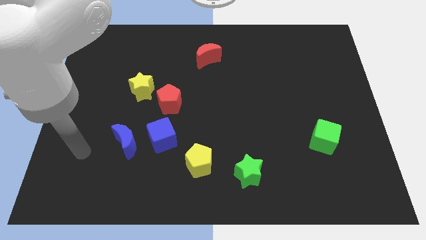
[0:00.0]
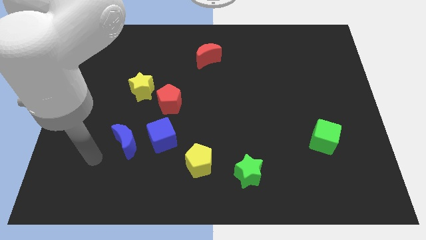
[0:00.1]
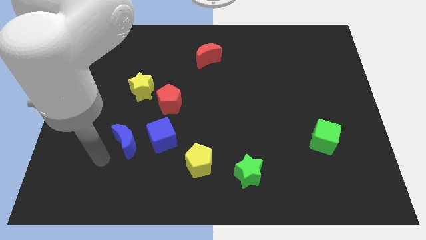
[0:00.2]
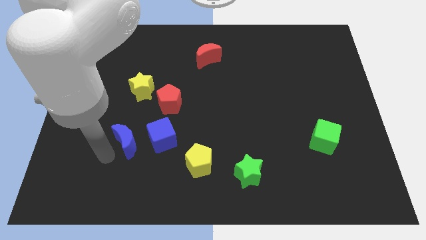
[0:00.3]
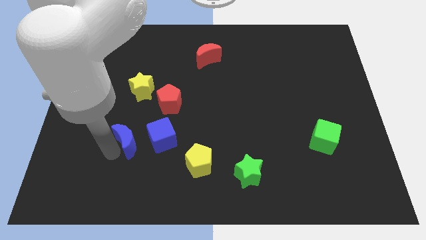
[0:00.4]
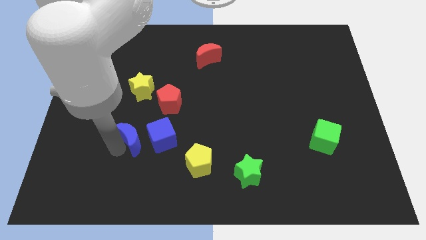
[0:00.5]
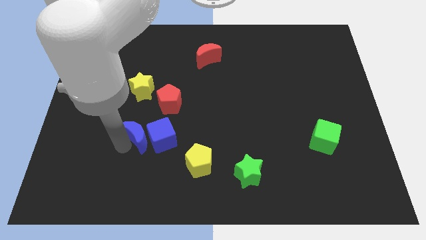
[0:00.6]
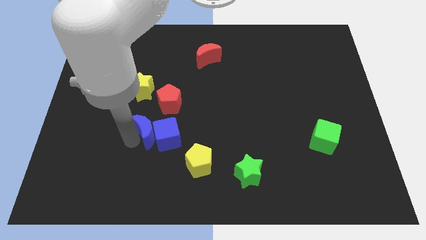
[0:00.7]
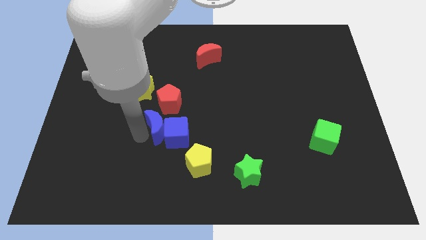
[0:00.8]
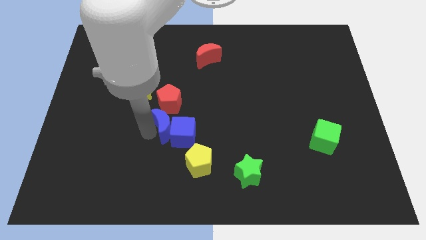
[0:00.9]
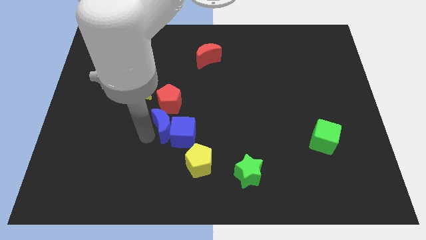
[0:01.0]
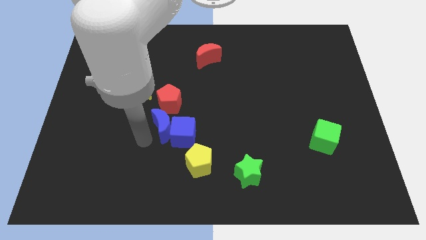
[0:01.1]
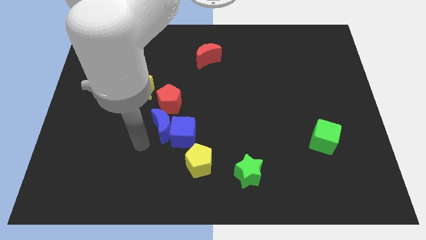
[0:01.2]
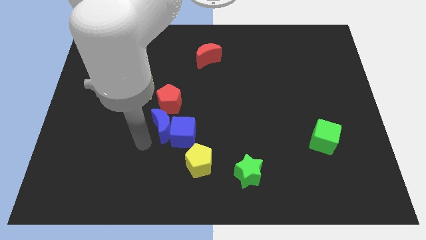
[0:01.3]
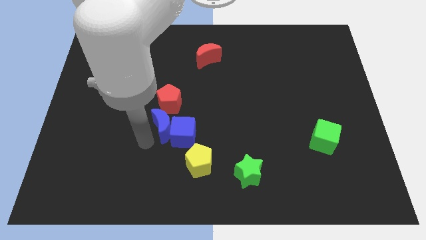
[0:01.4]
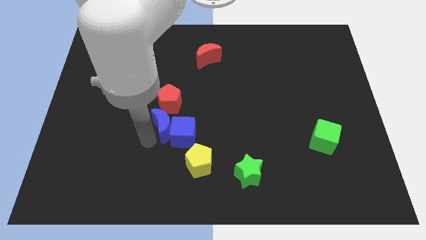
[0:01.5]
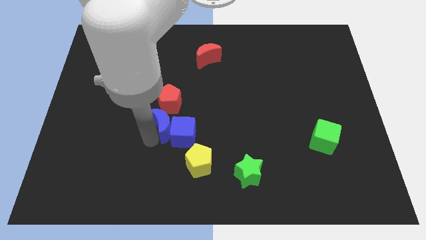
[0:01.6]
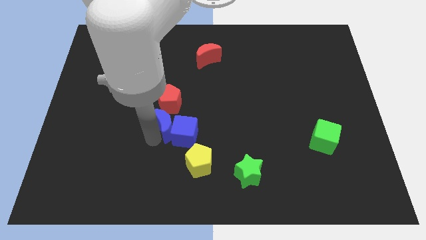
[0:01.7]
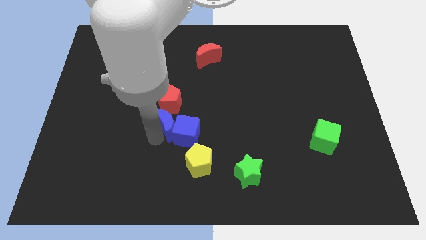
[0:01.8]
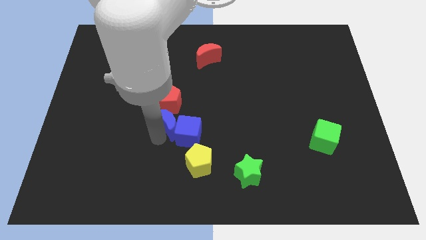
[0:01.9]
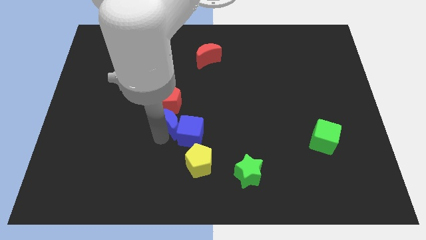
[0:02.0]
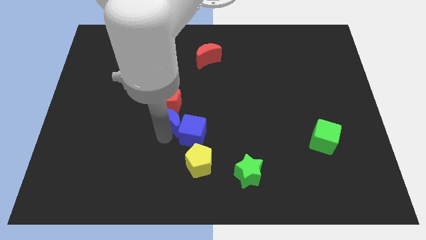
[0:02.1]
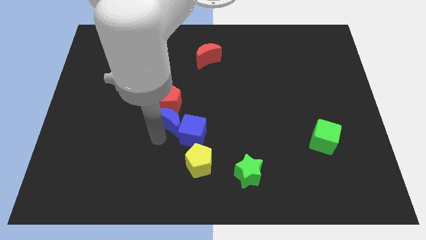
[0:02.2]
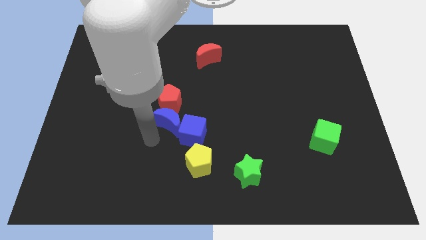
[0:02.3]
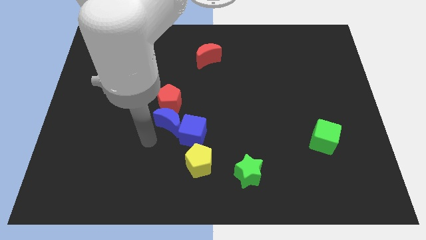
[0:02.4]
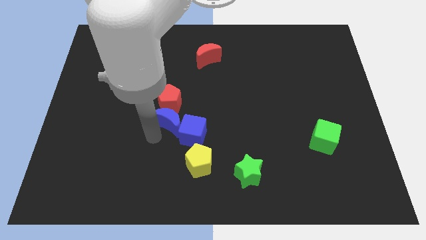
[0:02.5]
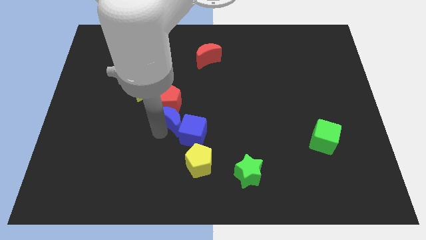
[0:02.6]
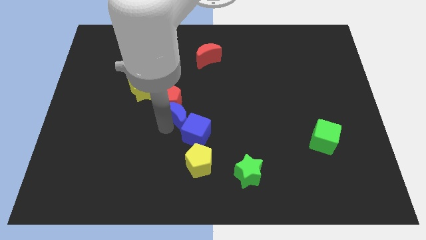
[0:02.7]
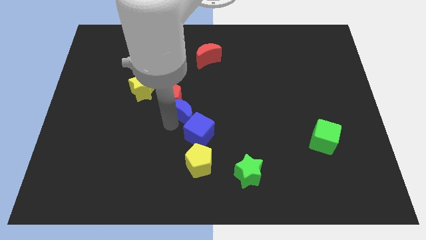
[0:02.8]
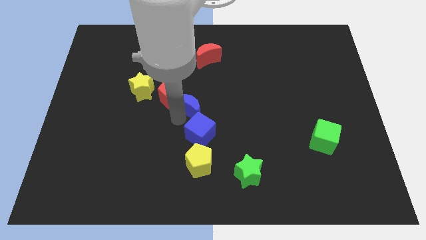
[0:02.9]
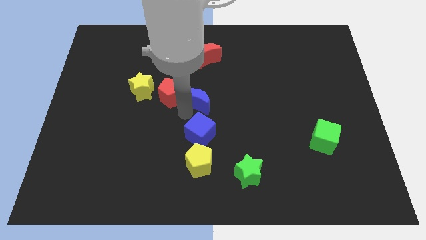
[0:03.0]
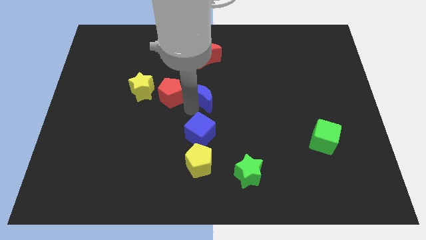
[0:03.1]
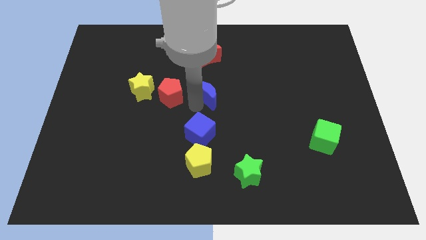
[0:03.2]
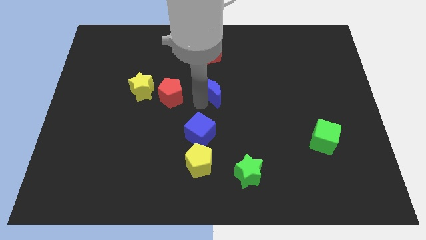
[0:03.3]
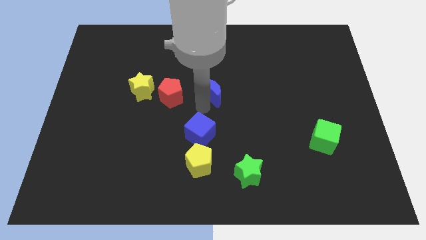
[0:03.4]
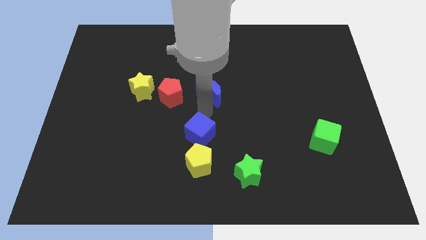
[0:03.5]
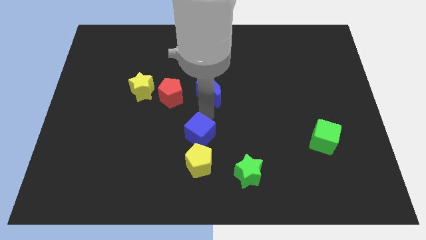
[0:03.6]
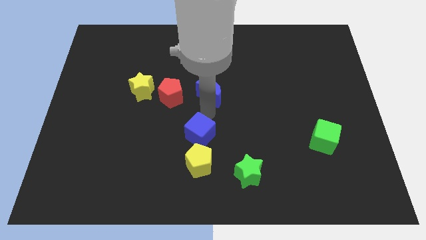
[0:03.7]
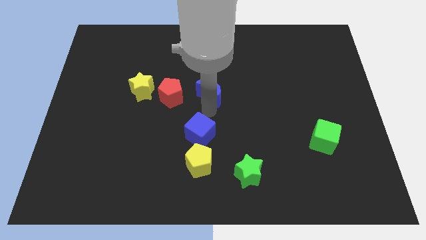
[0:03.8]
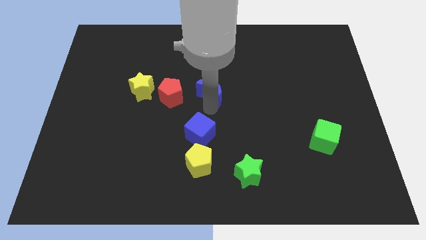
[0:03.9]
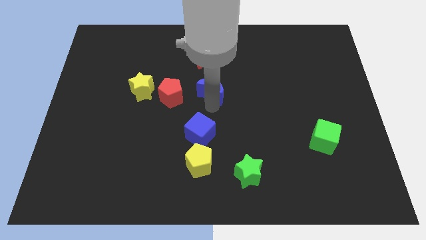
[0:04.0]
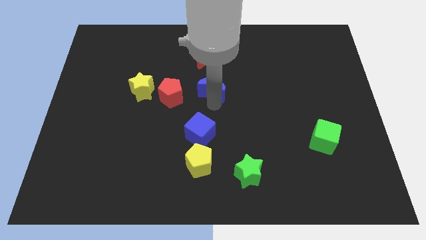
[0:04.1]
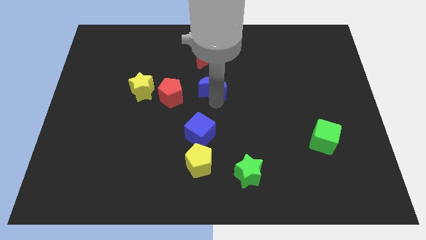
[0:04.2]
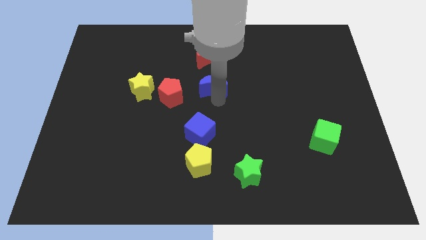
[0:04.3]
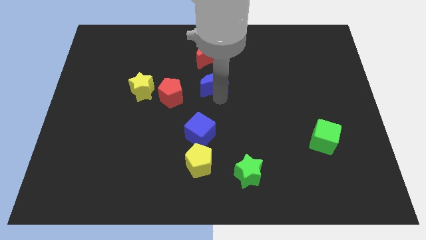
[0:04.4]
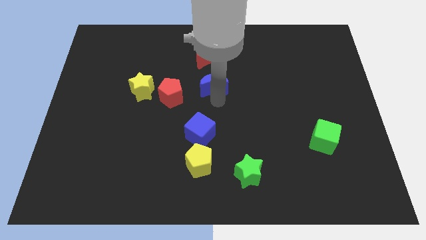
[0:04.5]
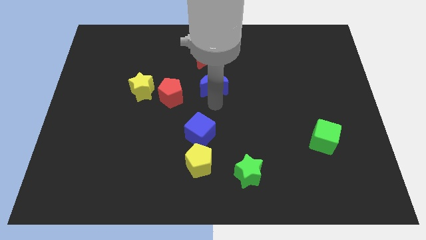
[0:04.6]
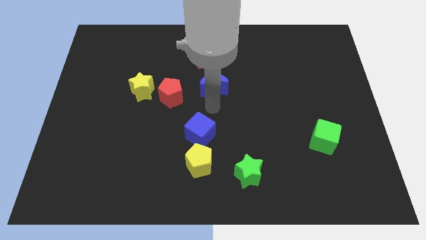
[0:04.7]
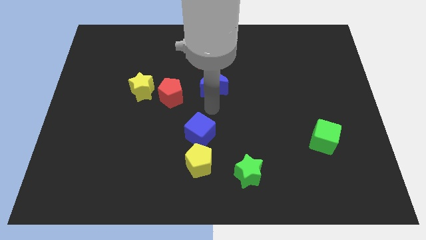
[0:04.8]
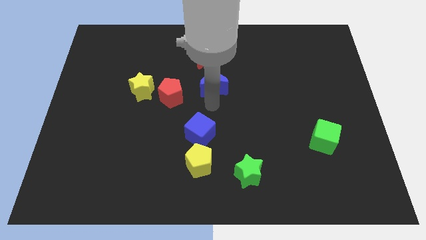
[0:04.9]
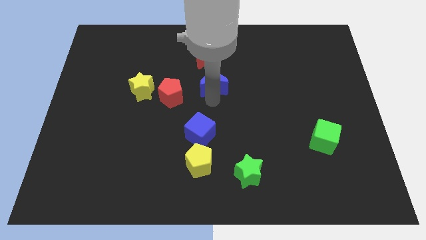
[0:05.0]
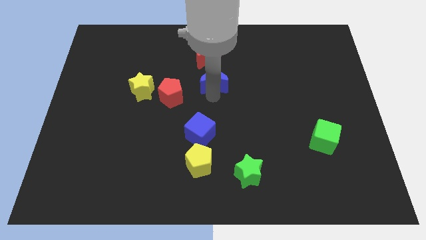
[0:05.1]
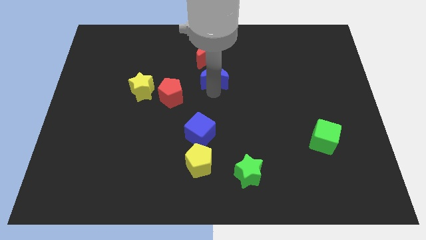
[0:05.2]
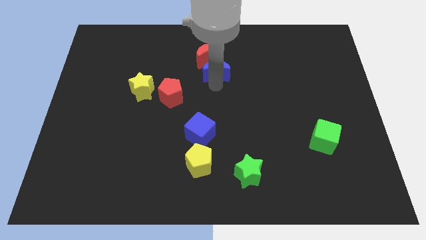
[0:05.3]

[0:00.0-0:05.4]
slide the blue moon close to the red moon

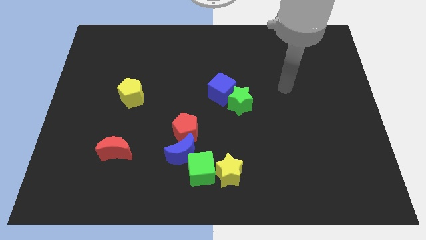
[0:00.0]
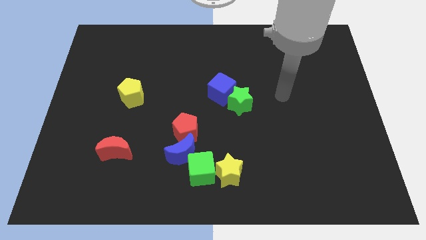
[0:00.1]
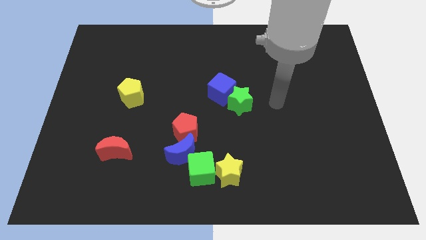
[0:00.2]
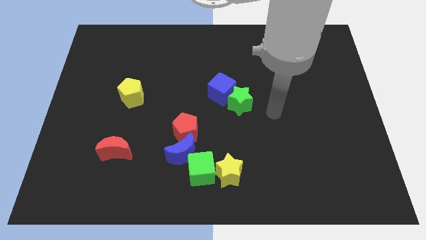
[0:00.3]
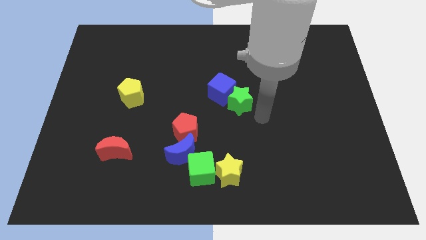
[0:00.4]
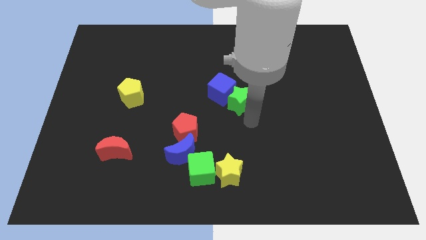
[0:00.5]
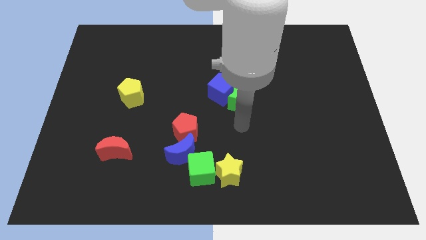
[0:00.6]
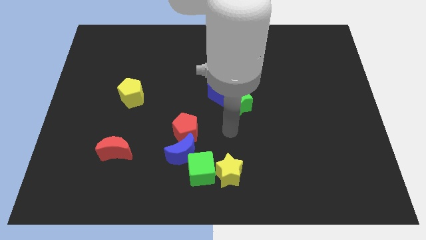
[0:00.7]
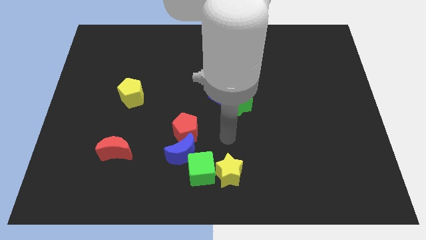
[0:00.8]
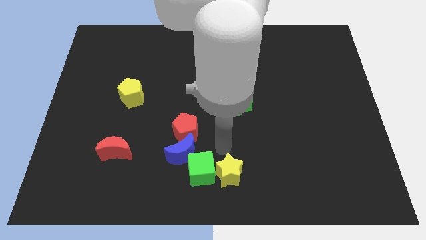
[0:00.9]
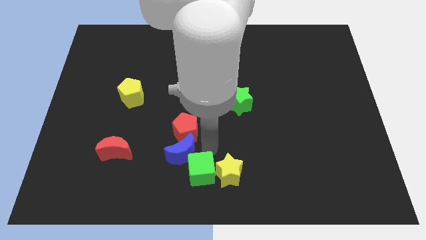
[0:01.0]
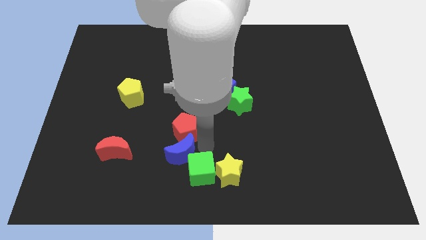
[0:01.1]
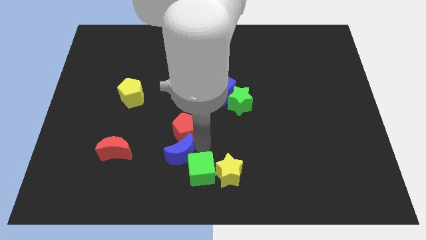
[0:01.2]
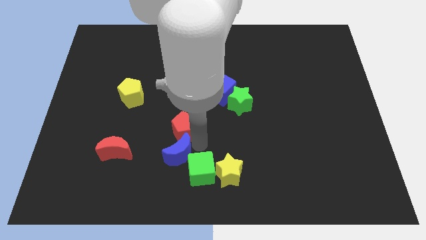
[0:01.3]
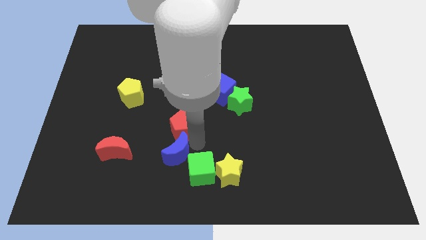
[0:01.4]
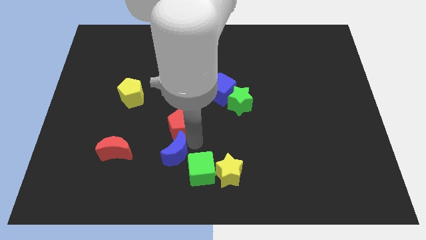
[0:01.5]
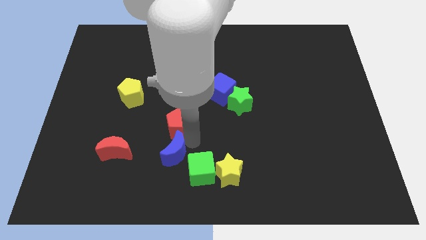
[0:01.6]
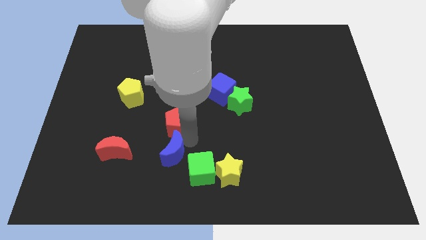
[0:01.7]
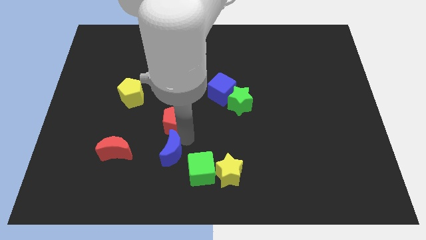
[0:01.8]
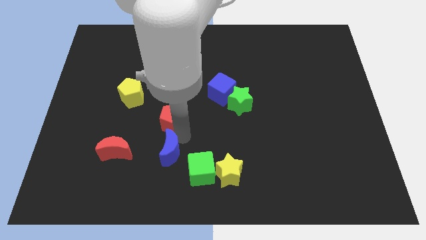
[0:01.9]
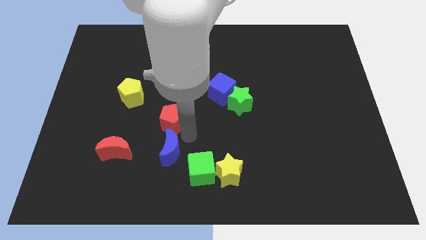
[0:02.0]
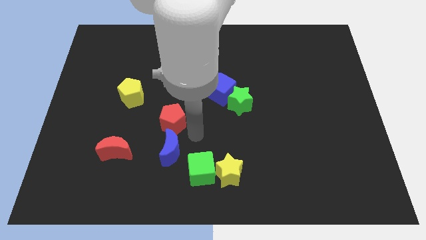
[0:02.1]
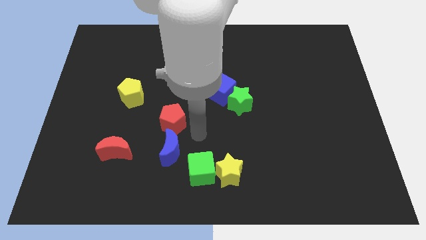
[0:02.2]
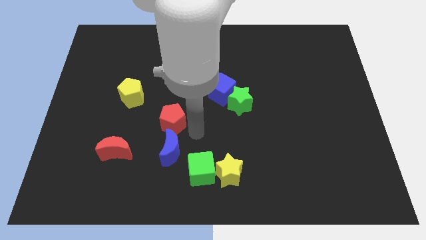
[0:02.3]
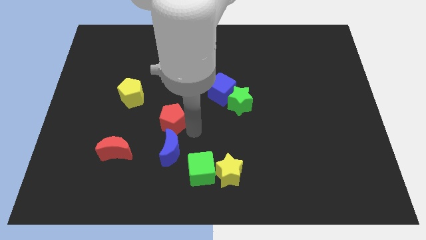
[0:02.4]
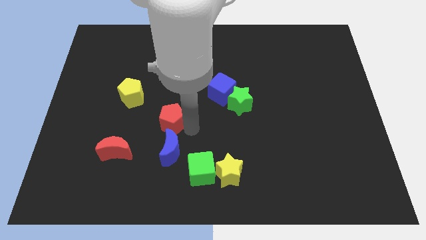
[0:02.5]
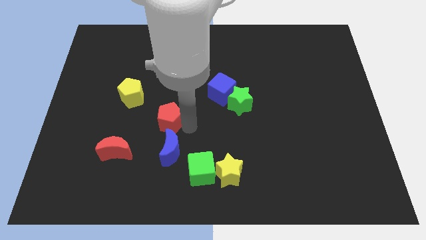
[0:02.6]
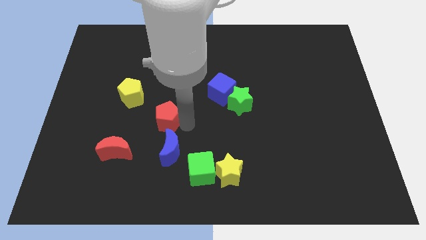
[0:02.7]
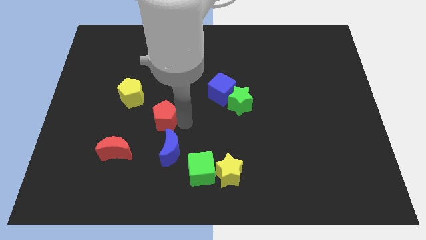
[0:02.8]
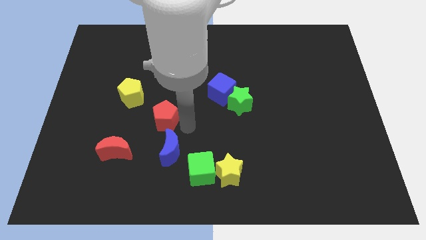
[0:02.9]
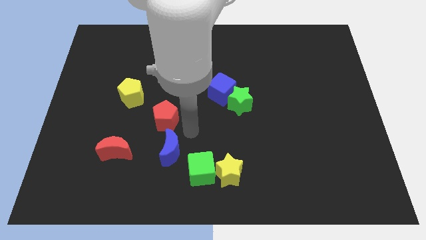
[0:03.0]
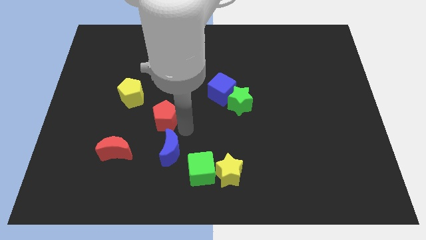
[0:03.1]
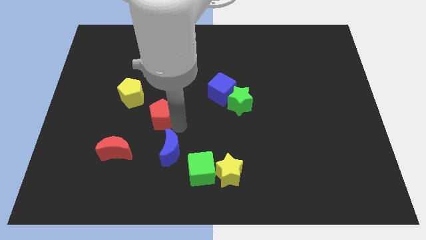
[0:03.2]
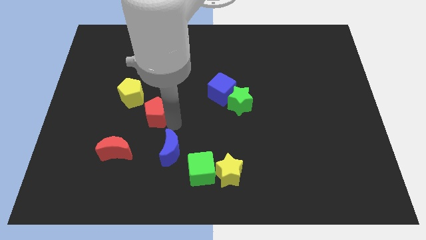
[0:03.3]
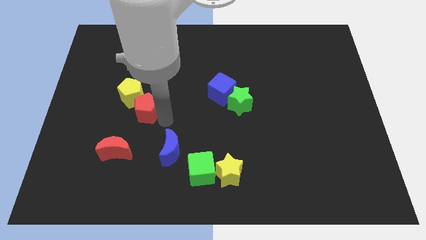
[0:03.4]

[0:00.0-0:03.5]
put the red pentagon to the yellow pentagon
